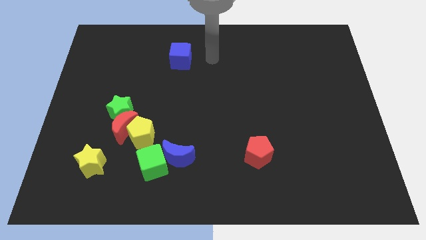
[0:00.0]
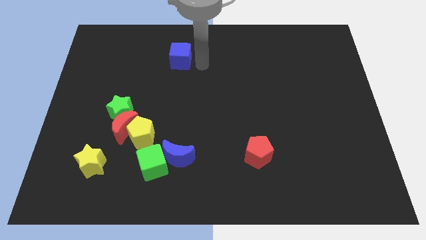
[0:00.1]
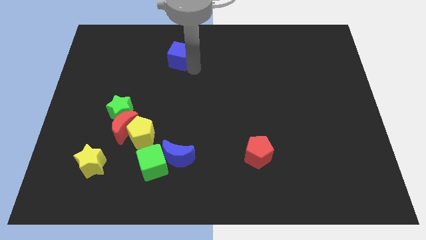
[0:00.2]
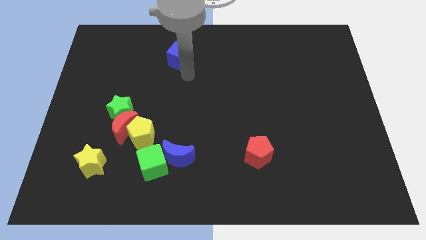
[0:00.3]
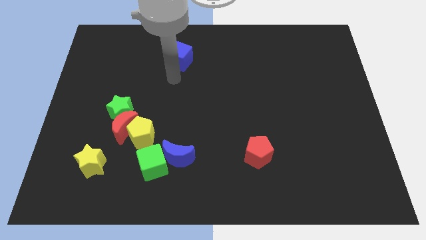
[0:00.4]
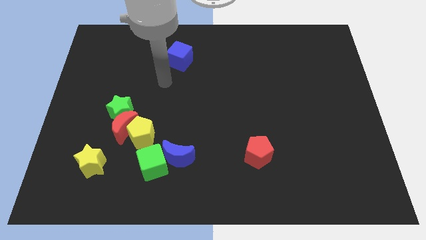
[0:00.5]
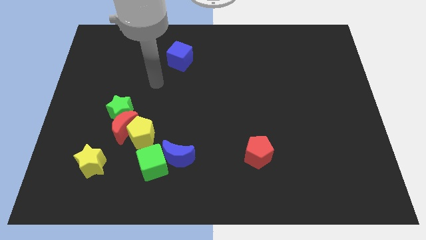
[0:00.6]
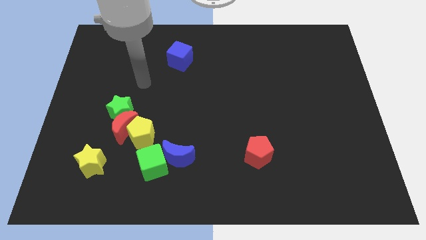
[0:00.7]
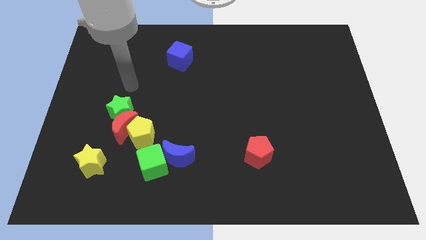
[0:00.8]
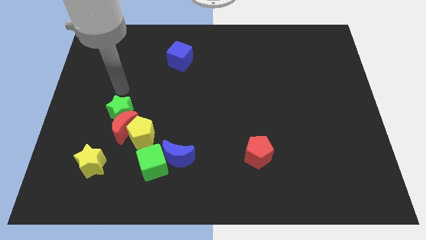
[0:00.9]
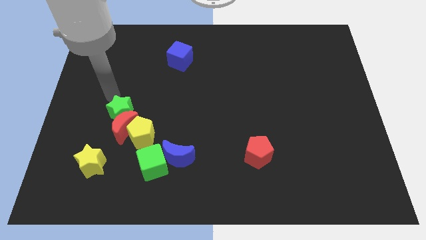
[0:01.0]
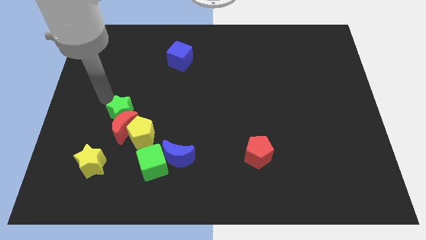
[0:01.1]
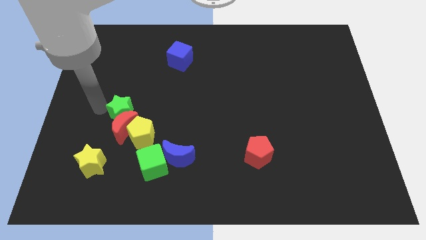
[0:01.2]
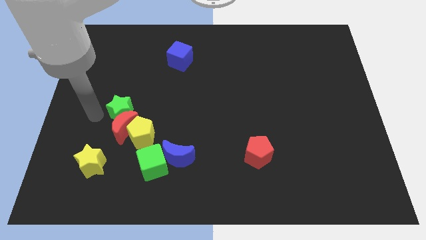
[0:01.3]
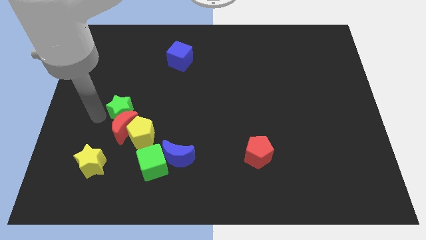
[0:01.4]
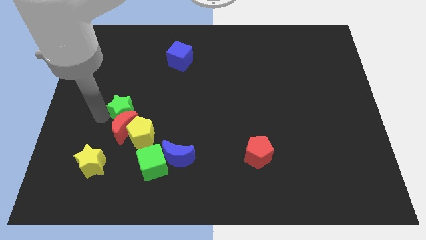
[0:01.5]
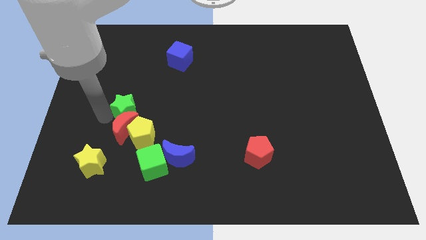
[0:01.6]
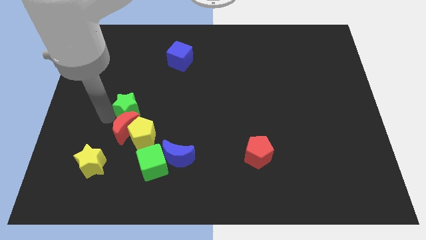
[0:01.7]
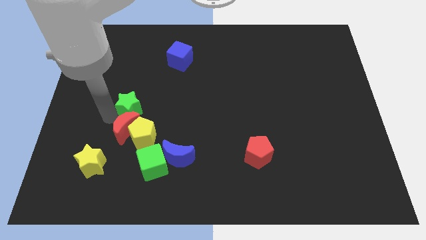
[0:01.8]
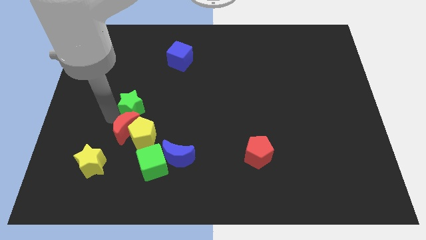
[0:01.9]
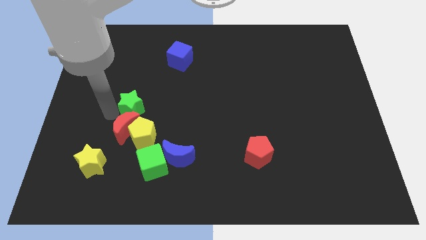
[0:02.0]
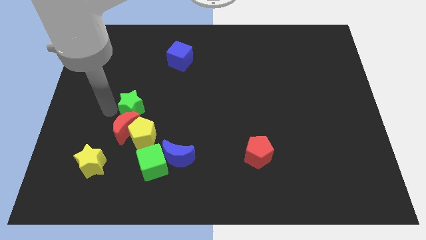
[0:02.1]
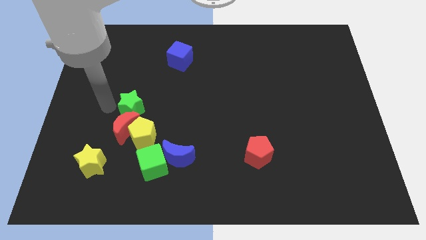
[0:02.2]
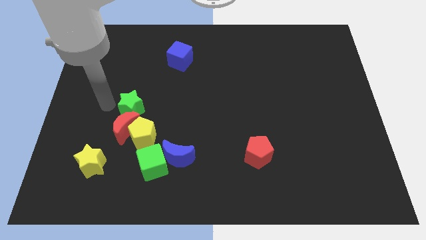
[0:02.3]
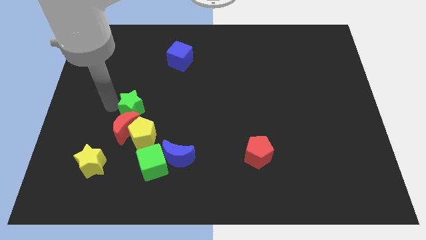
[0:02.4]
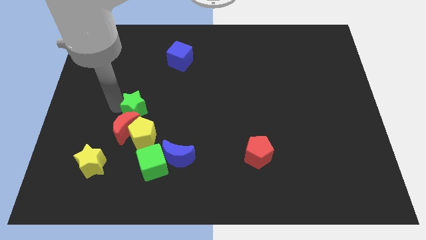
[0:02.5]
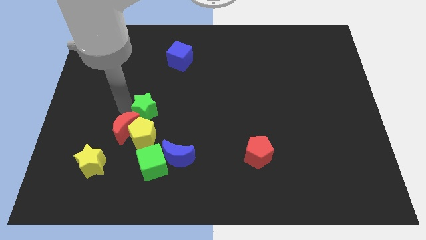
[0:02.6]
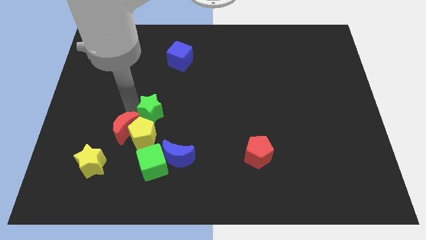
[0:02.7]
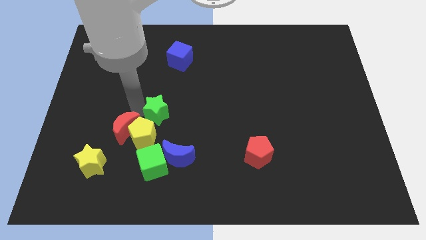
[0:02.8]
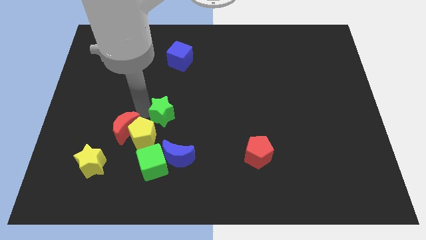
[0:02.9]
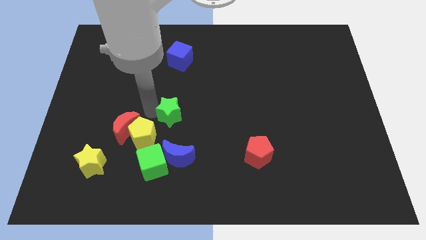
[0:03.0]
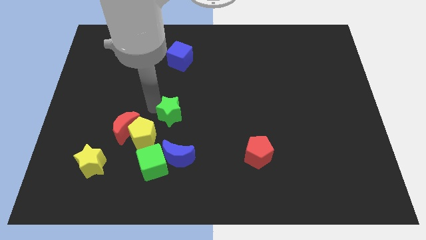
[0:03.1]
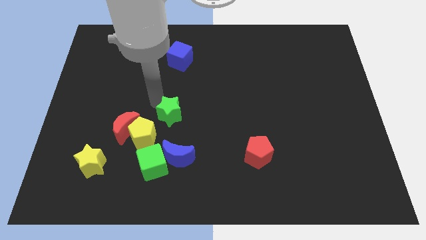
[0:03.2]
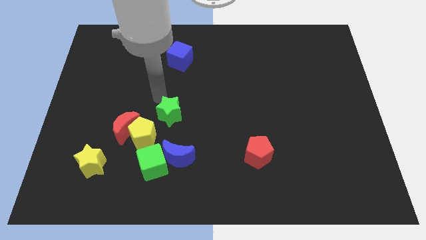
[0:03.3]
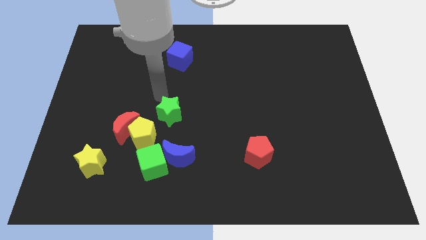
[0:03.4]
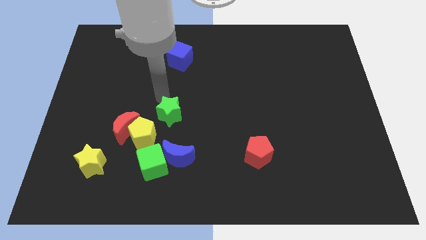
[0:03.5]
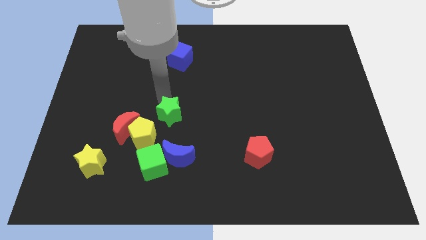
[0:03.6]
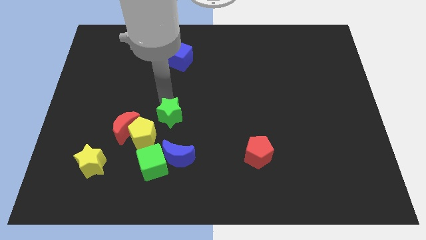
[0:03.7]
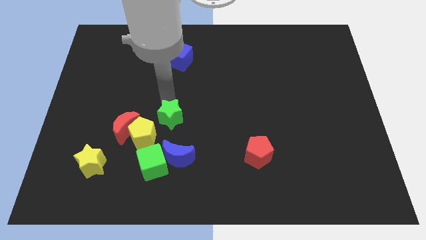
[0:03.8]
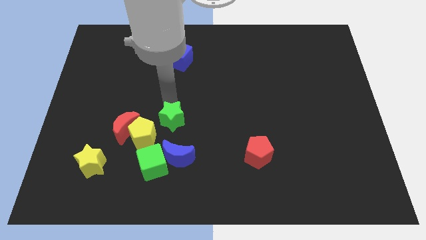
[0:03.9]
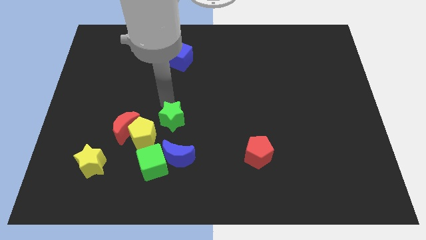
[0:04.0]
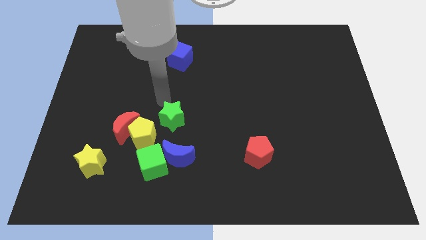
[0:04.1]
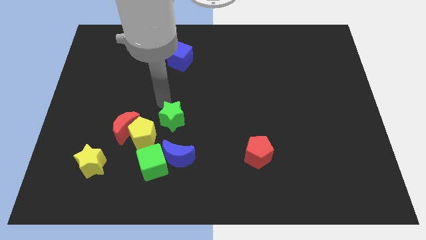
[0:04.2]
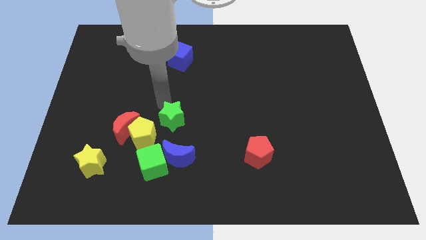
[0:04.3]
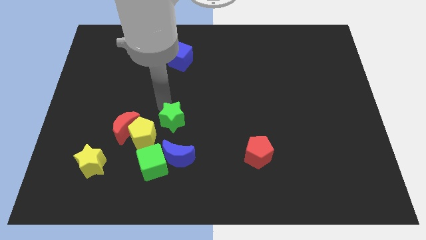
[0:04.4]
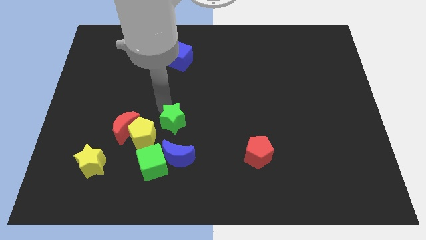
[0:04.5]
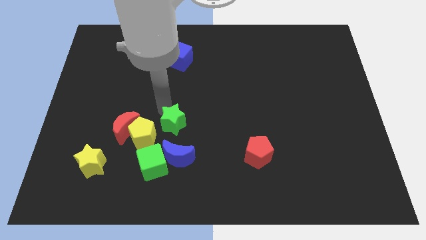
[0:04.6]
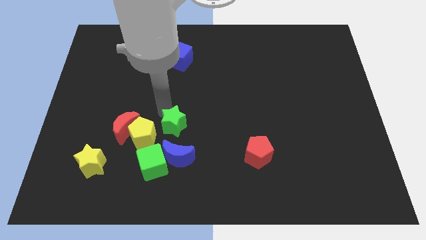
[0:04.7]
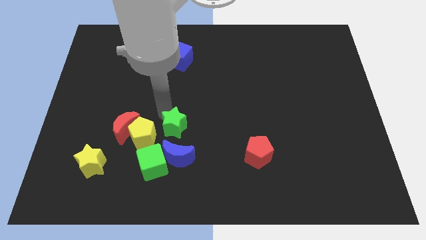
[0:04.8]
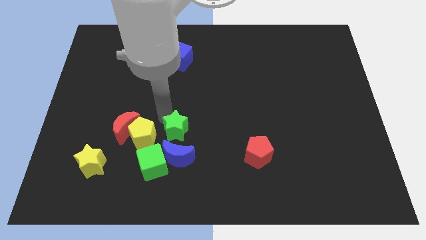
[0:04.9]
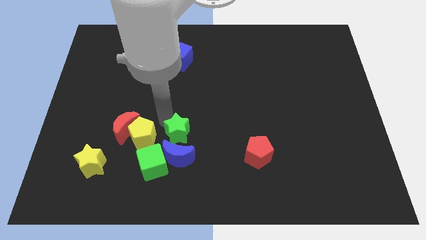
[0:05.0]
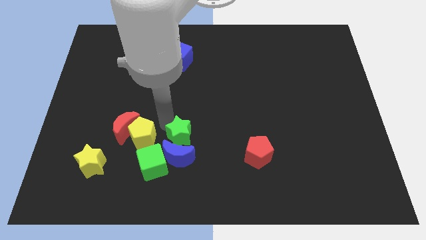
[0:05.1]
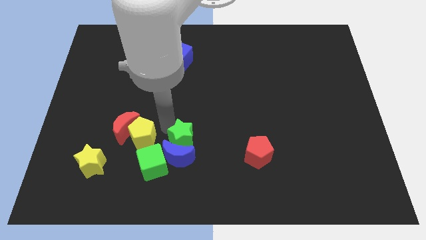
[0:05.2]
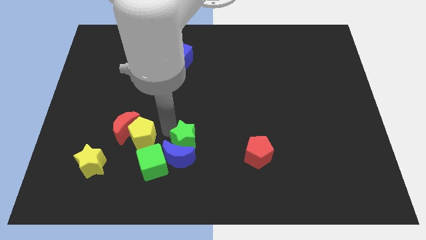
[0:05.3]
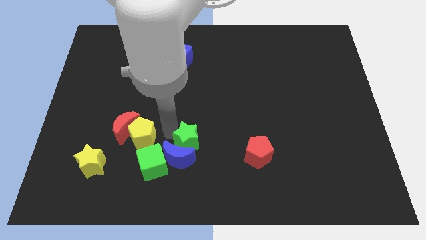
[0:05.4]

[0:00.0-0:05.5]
push the green star to the left side of the red pentagon
